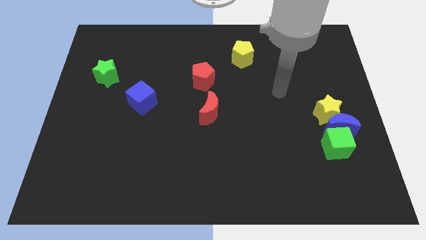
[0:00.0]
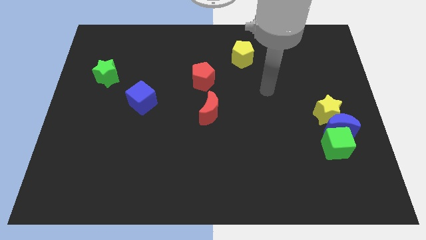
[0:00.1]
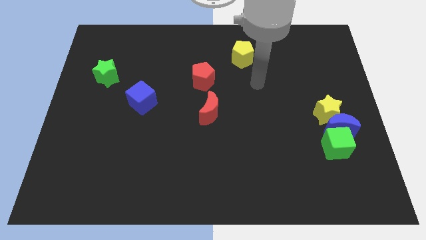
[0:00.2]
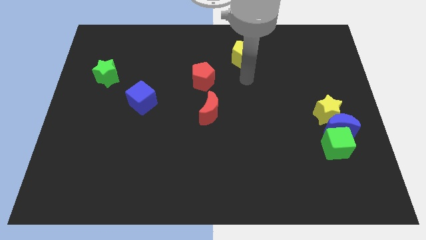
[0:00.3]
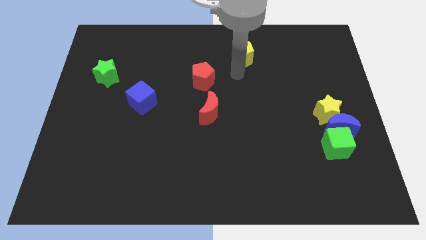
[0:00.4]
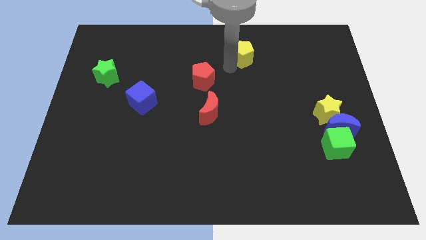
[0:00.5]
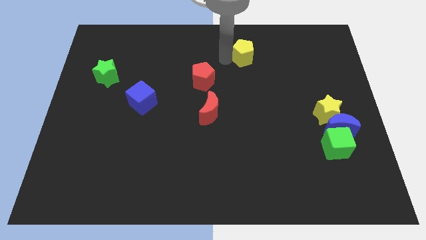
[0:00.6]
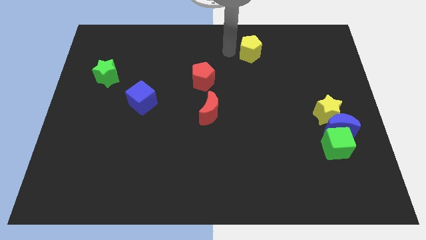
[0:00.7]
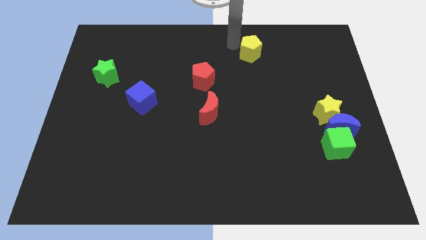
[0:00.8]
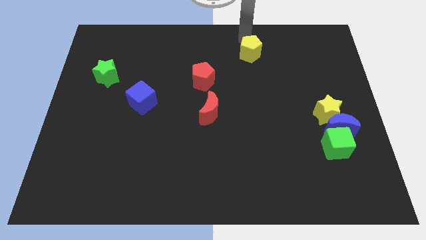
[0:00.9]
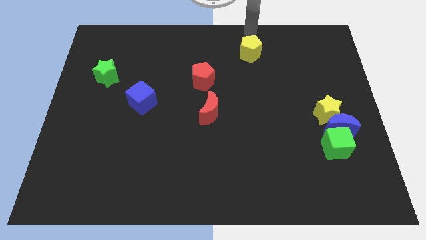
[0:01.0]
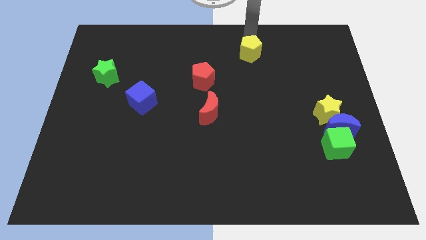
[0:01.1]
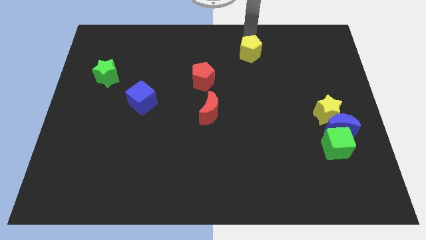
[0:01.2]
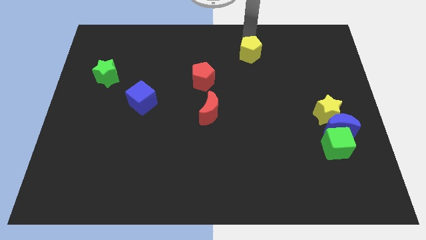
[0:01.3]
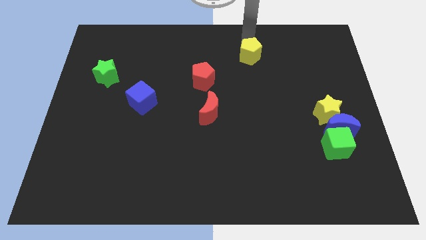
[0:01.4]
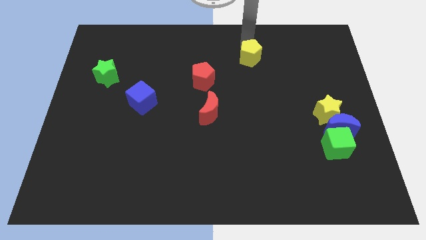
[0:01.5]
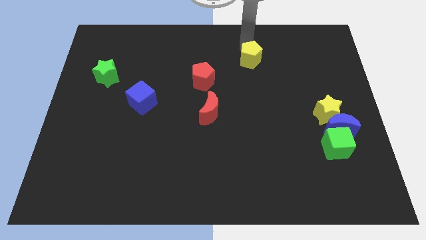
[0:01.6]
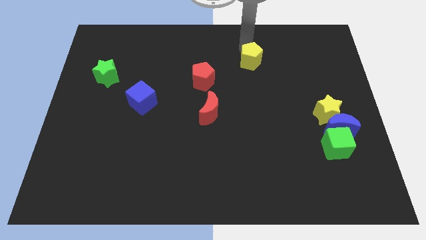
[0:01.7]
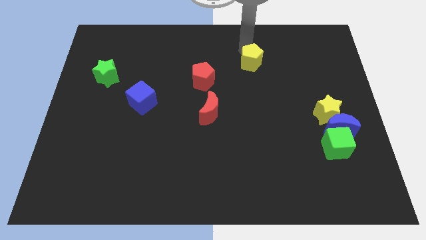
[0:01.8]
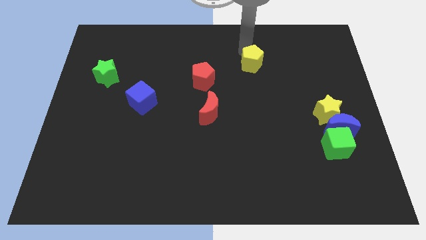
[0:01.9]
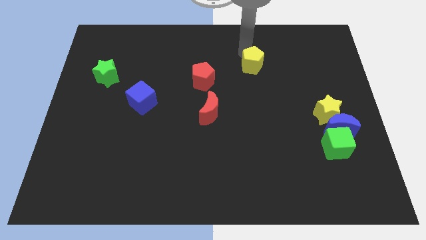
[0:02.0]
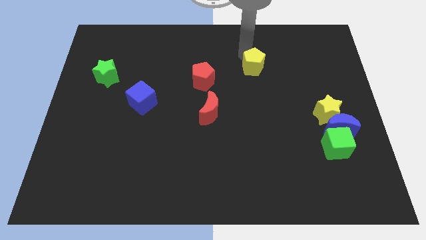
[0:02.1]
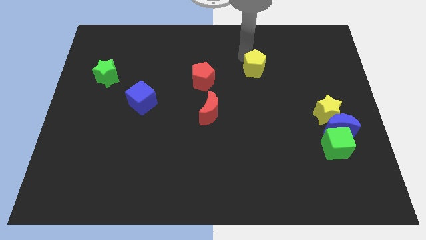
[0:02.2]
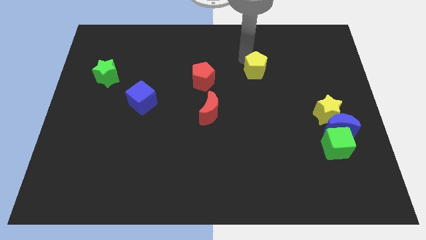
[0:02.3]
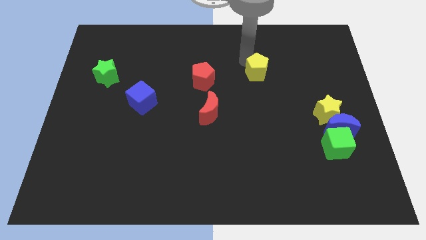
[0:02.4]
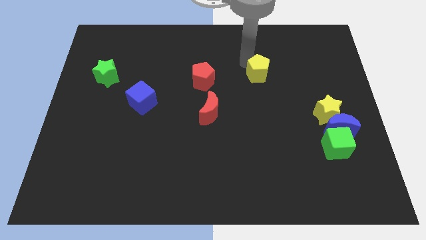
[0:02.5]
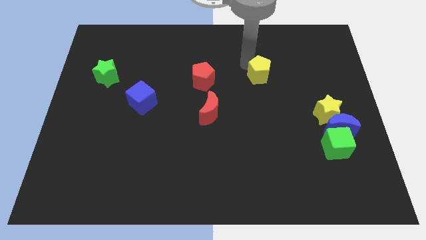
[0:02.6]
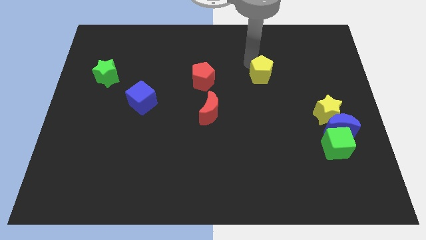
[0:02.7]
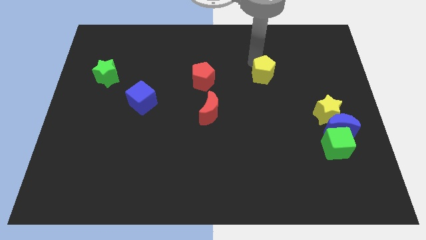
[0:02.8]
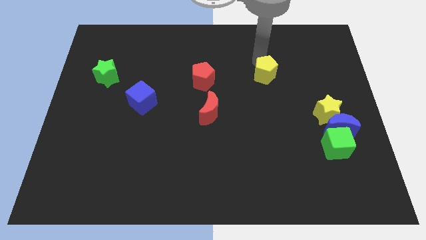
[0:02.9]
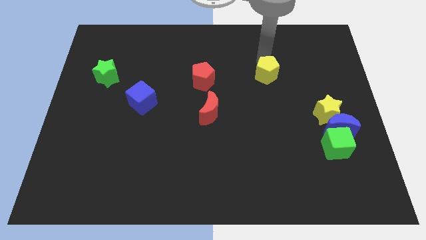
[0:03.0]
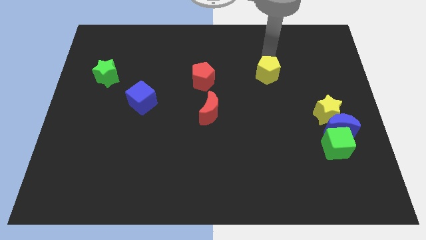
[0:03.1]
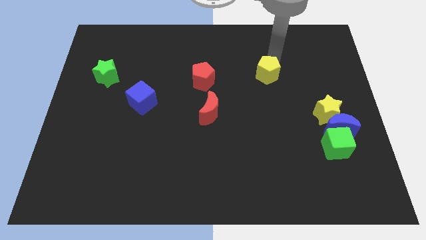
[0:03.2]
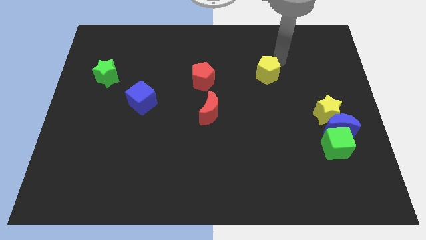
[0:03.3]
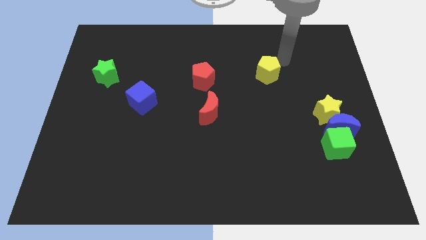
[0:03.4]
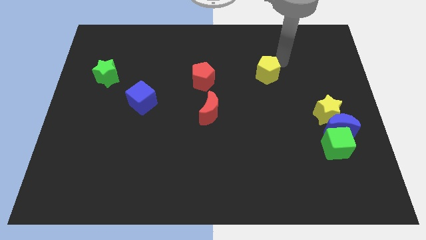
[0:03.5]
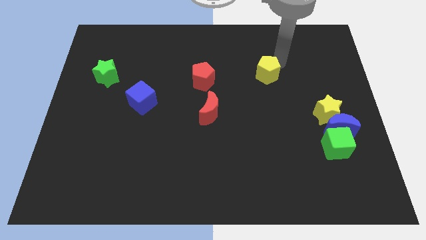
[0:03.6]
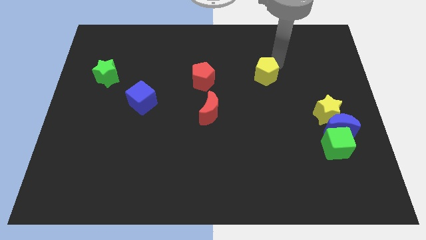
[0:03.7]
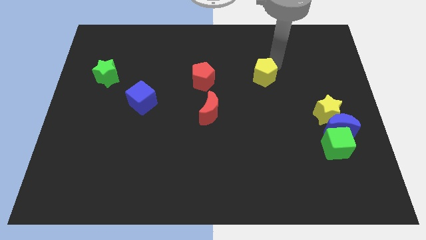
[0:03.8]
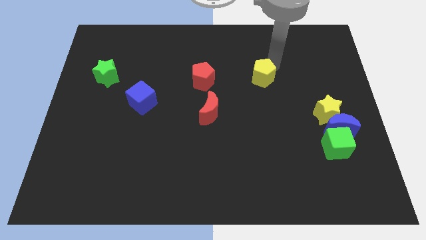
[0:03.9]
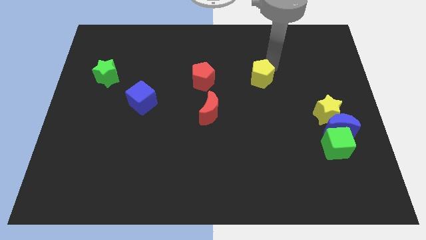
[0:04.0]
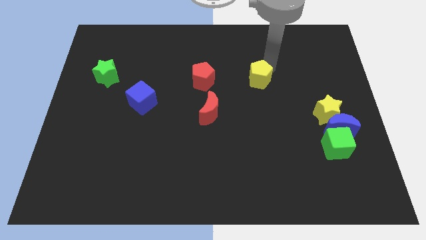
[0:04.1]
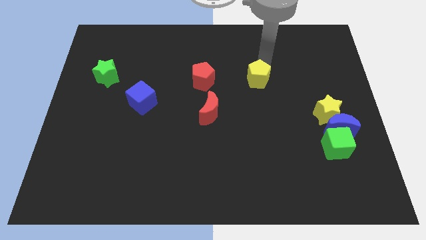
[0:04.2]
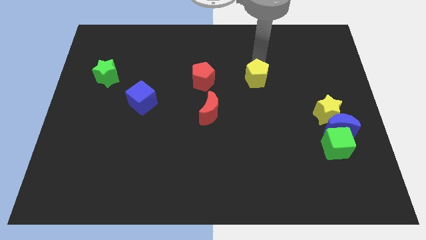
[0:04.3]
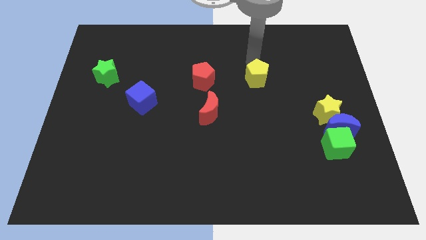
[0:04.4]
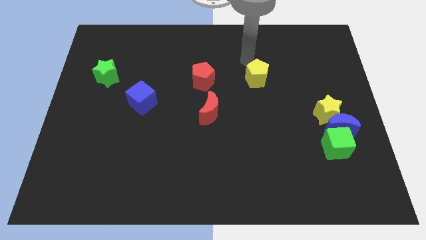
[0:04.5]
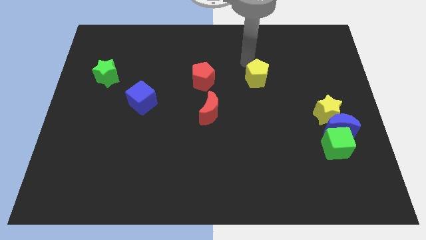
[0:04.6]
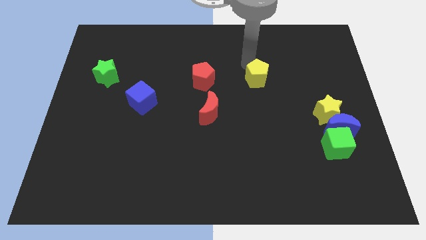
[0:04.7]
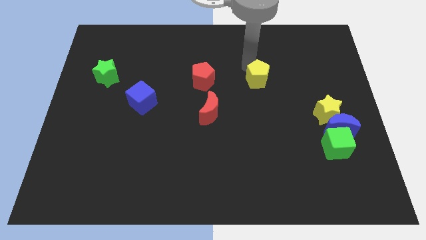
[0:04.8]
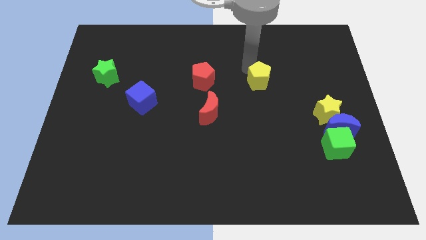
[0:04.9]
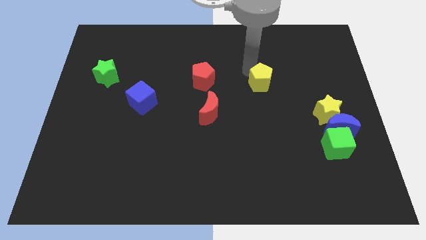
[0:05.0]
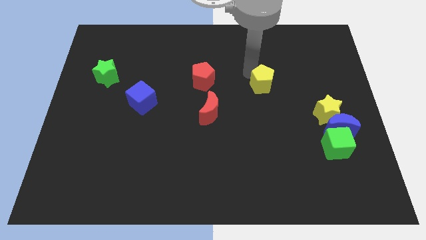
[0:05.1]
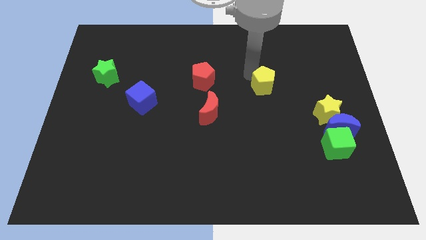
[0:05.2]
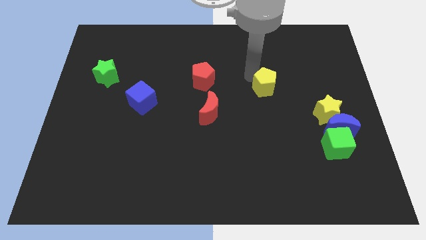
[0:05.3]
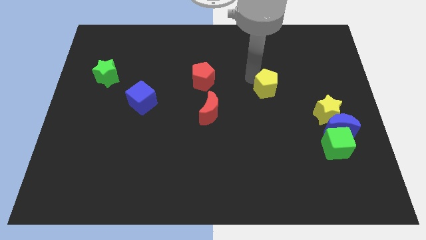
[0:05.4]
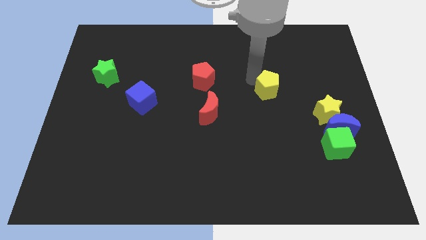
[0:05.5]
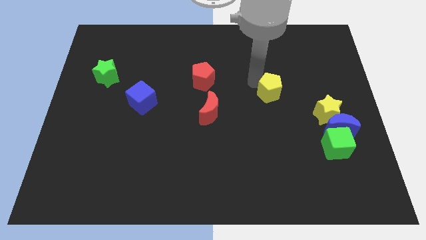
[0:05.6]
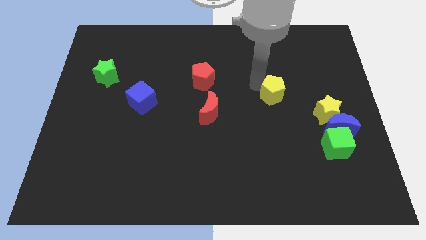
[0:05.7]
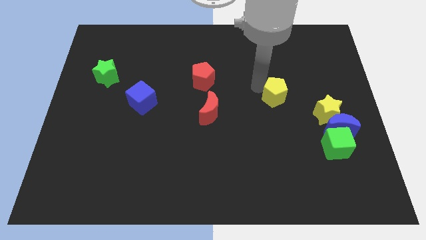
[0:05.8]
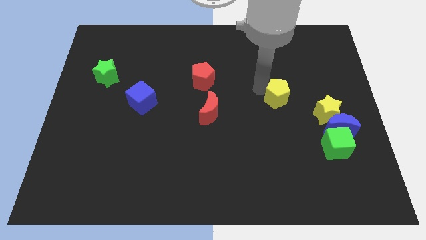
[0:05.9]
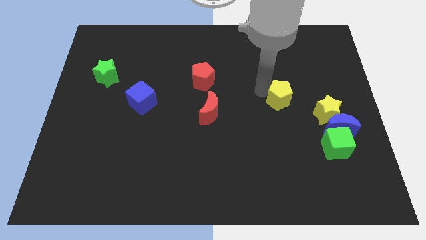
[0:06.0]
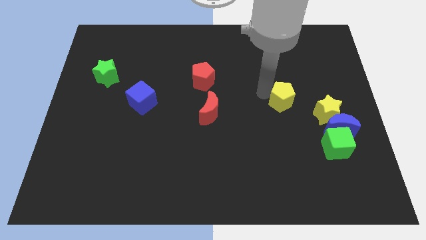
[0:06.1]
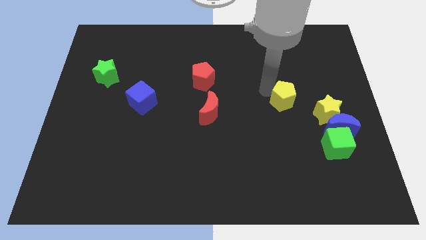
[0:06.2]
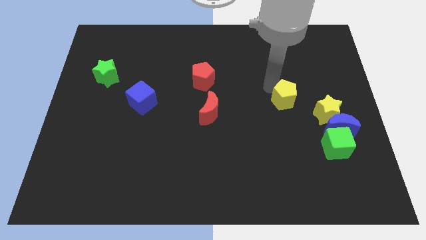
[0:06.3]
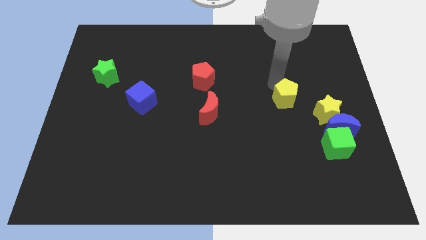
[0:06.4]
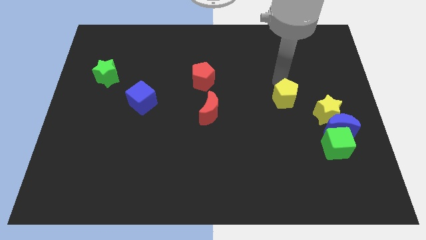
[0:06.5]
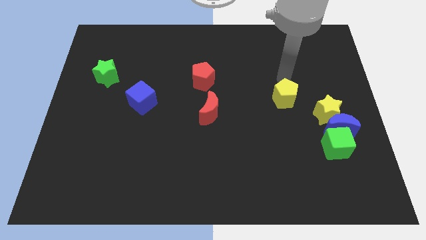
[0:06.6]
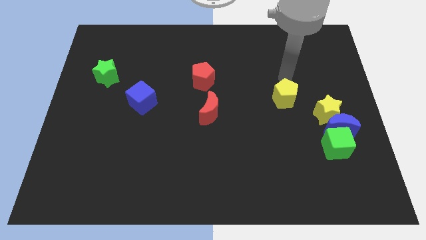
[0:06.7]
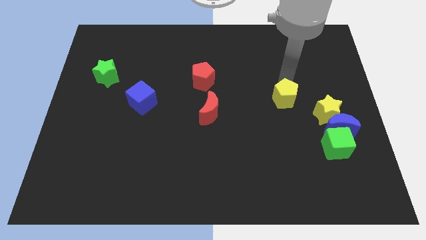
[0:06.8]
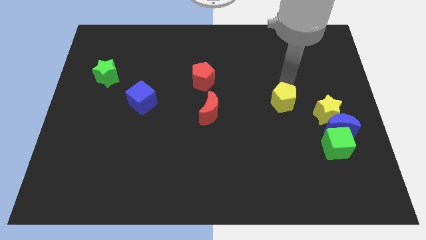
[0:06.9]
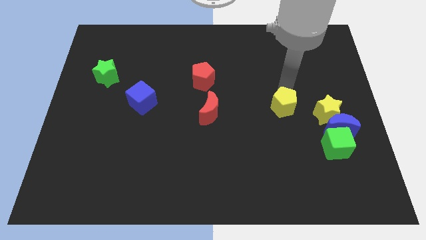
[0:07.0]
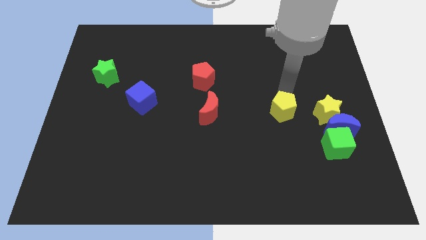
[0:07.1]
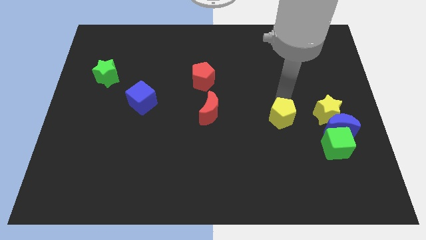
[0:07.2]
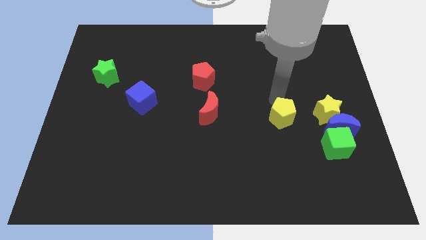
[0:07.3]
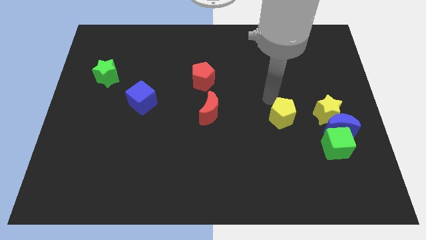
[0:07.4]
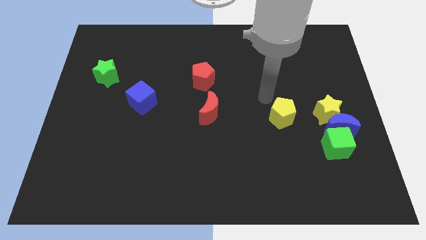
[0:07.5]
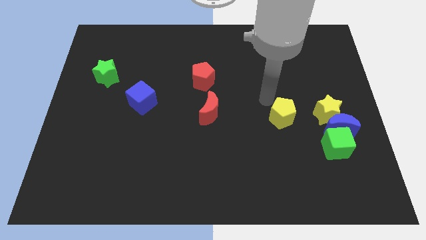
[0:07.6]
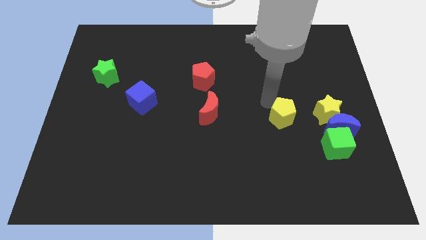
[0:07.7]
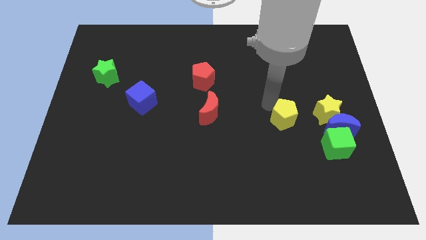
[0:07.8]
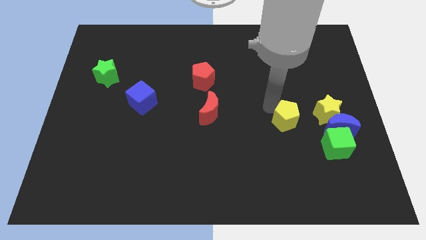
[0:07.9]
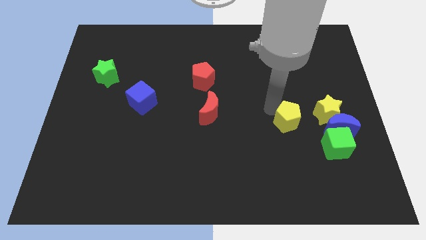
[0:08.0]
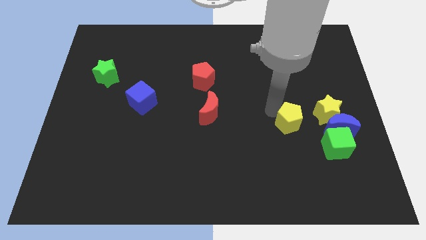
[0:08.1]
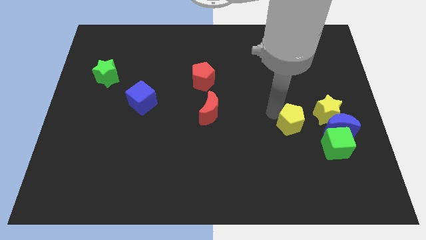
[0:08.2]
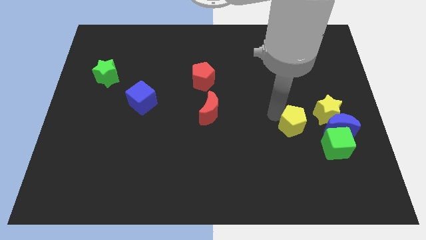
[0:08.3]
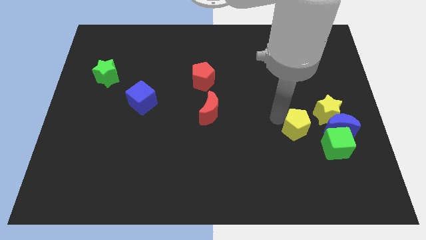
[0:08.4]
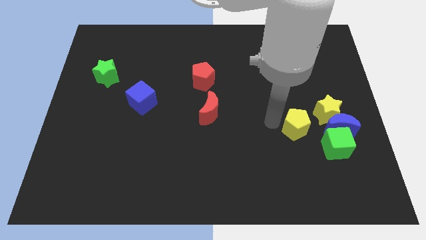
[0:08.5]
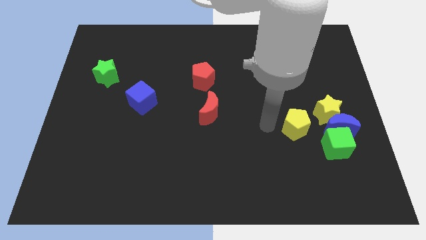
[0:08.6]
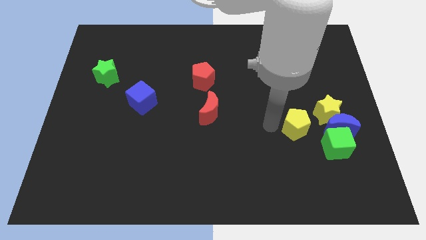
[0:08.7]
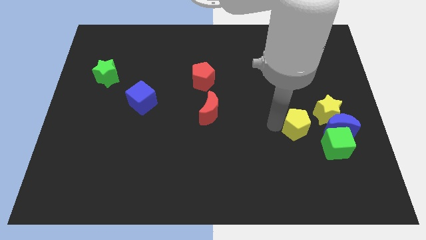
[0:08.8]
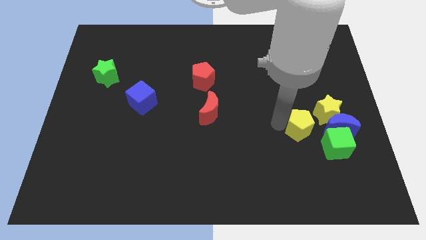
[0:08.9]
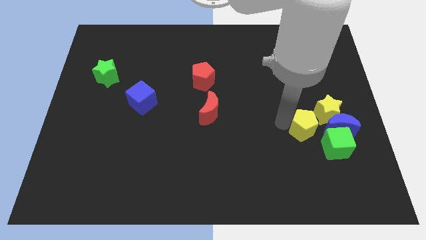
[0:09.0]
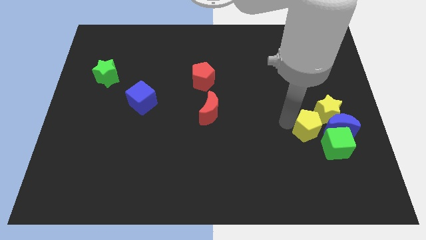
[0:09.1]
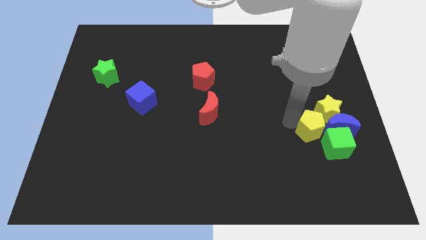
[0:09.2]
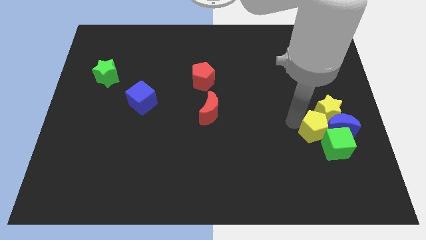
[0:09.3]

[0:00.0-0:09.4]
move the yellow pentagon close to the blue moon
